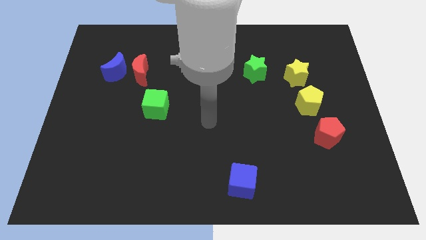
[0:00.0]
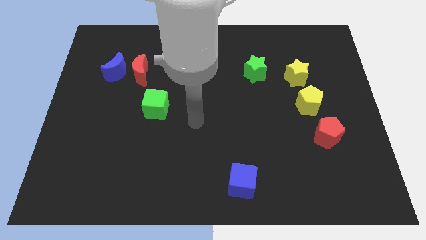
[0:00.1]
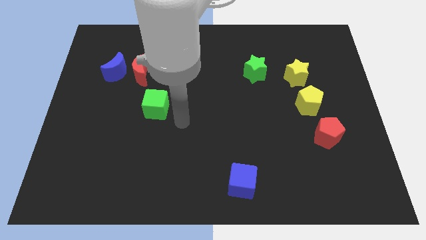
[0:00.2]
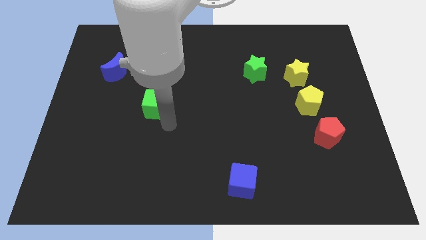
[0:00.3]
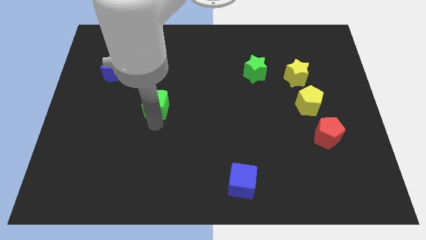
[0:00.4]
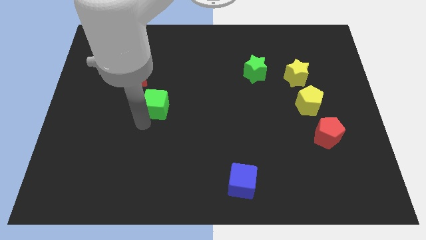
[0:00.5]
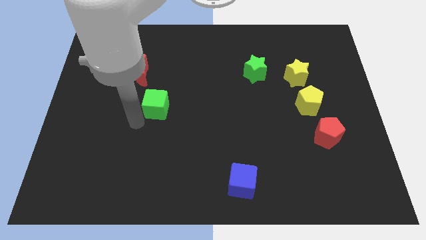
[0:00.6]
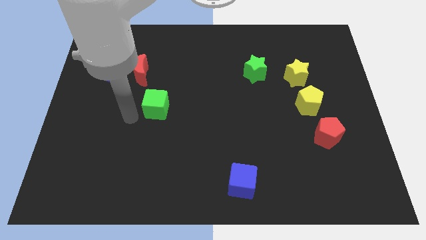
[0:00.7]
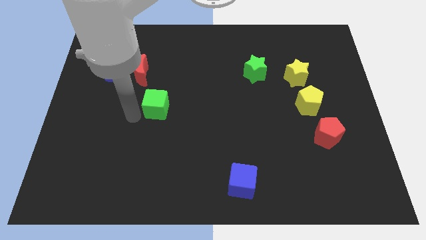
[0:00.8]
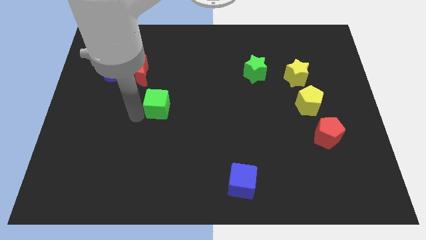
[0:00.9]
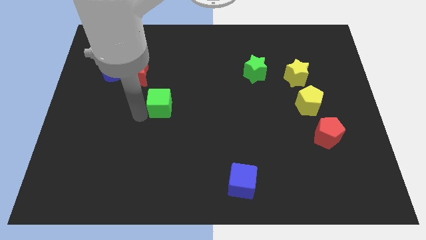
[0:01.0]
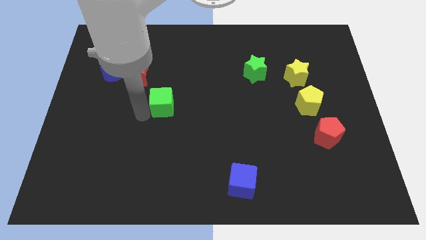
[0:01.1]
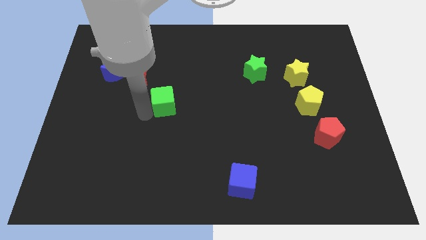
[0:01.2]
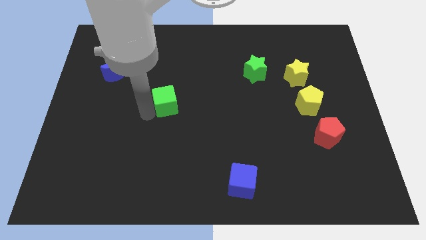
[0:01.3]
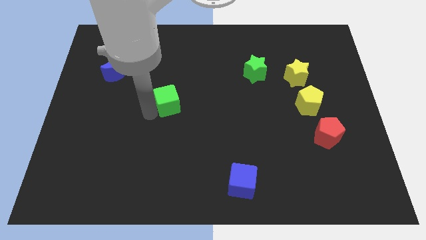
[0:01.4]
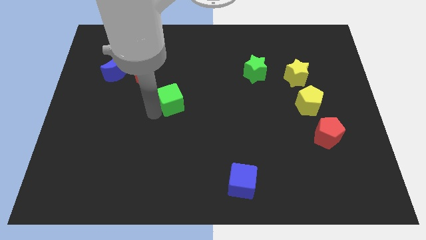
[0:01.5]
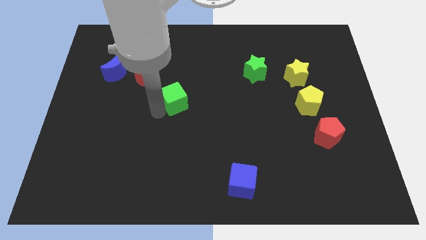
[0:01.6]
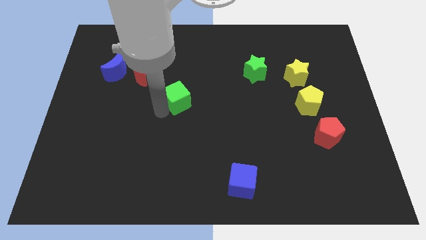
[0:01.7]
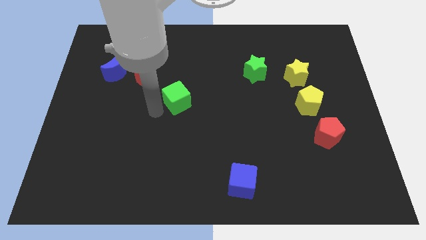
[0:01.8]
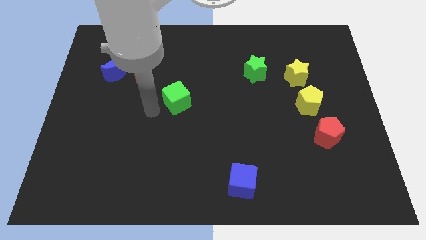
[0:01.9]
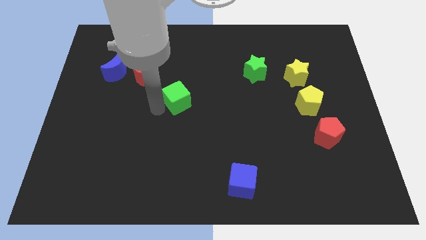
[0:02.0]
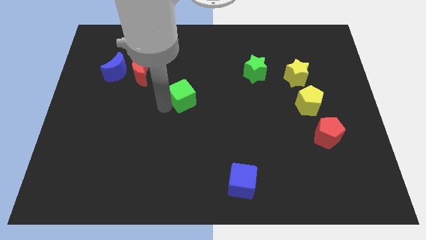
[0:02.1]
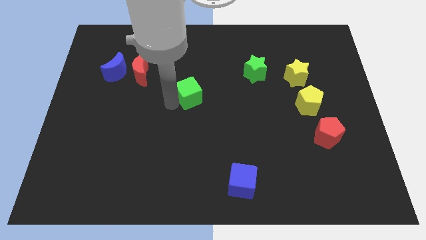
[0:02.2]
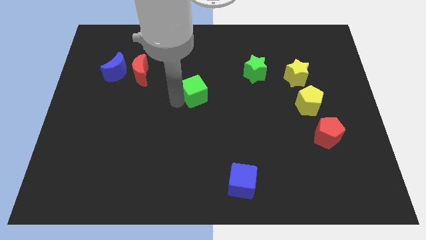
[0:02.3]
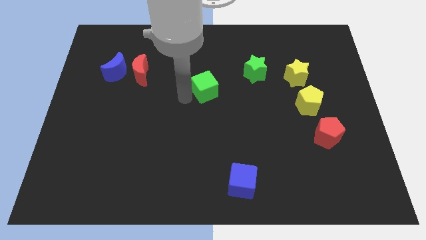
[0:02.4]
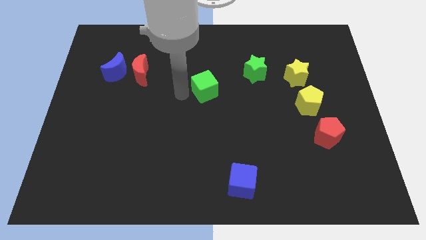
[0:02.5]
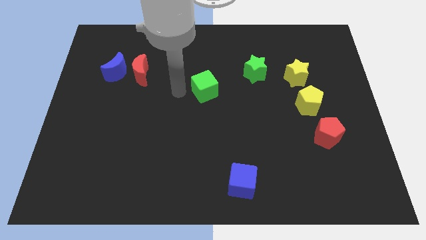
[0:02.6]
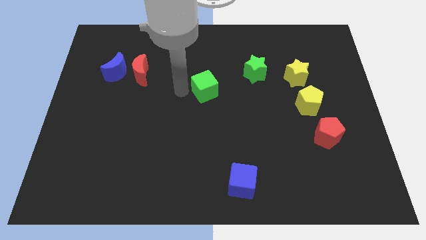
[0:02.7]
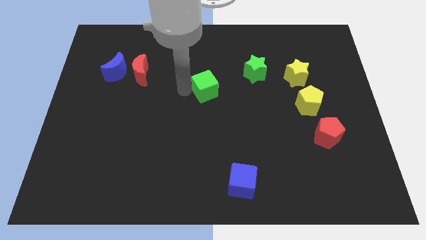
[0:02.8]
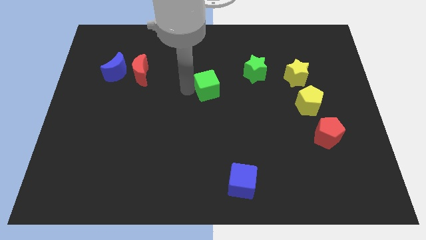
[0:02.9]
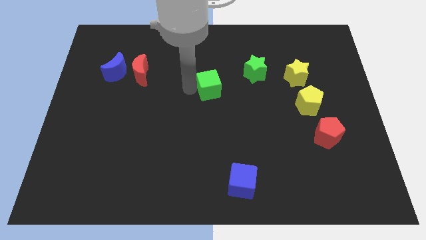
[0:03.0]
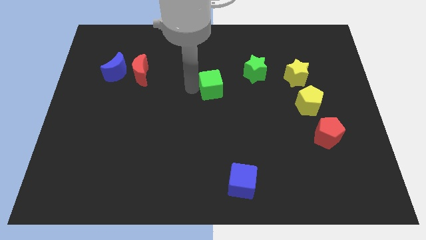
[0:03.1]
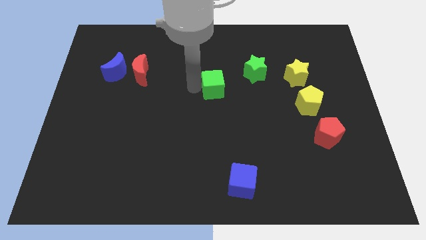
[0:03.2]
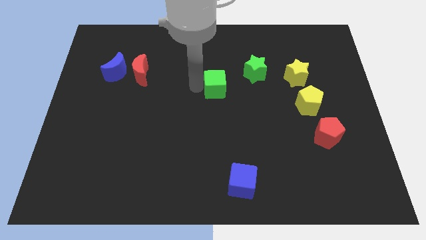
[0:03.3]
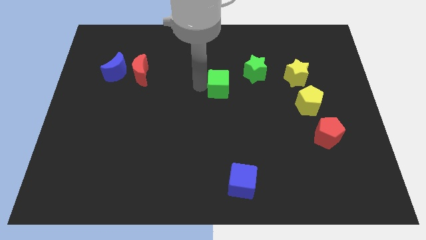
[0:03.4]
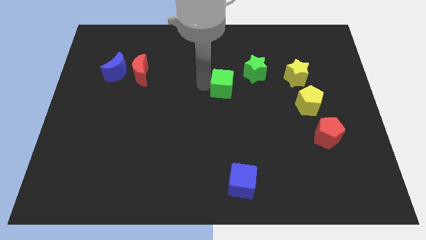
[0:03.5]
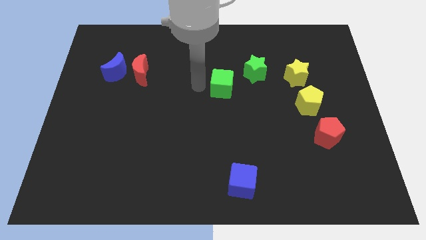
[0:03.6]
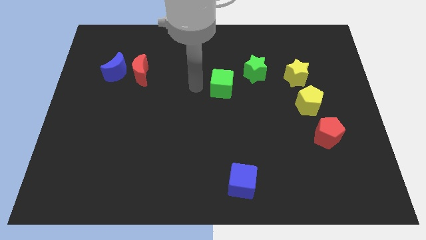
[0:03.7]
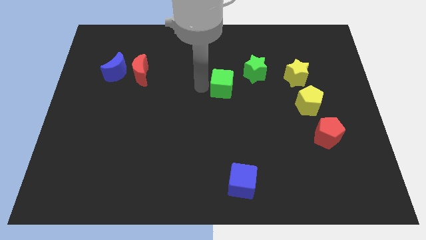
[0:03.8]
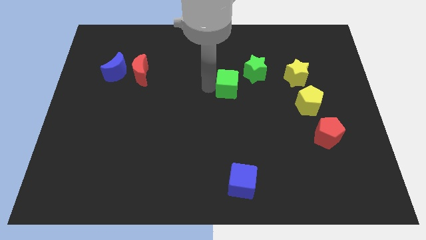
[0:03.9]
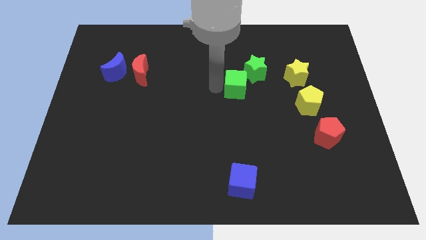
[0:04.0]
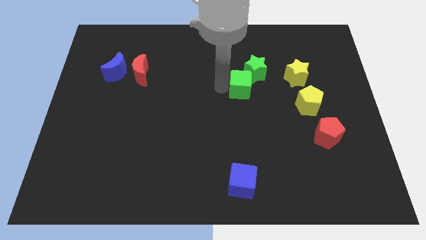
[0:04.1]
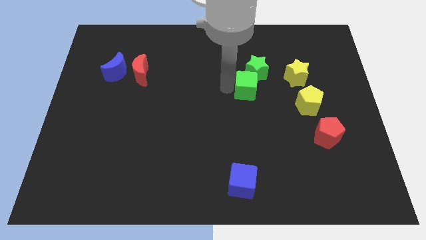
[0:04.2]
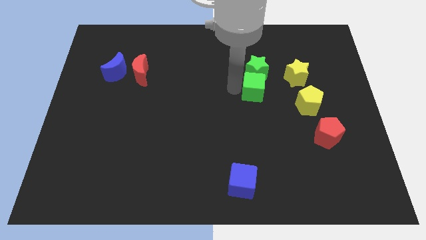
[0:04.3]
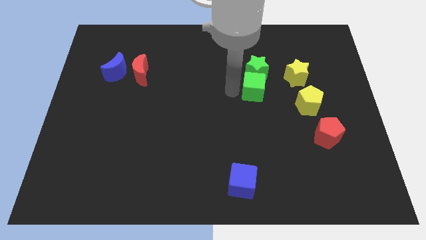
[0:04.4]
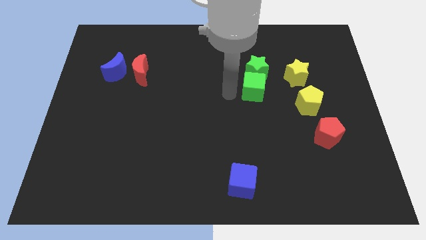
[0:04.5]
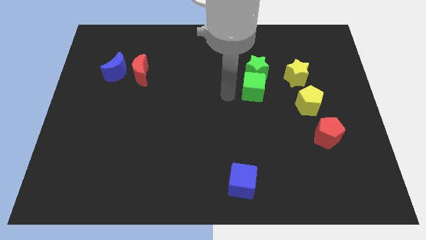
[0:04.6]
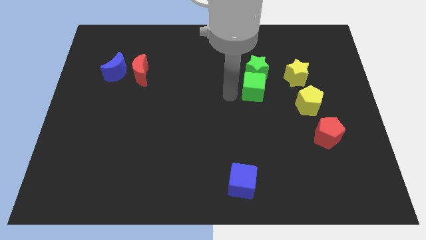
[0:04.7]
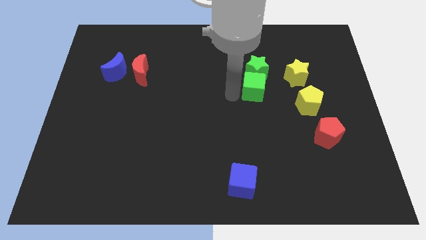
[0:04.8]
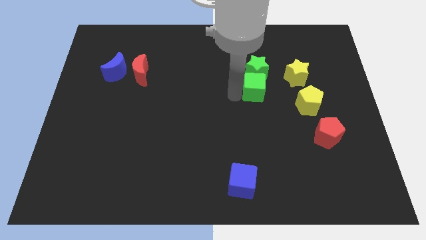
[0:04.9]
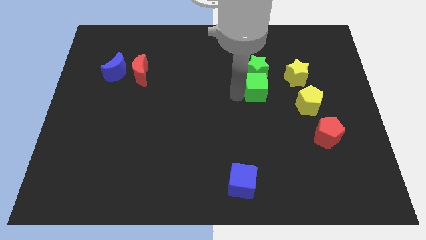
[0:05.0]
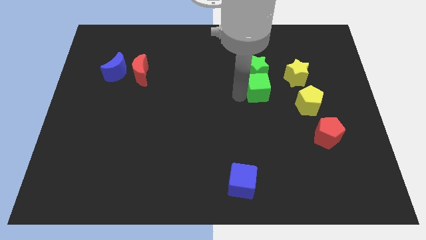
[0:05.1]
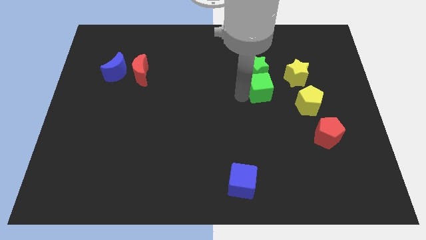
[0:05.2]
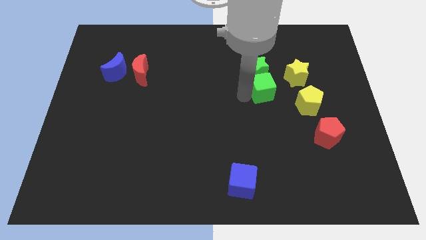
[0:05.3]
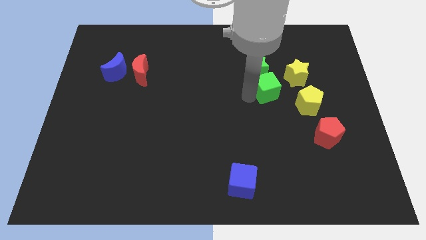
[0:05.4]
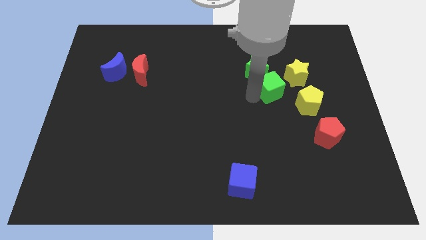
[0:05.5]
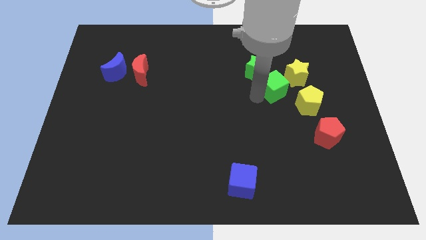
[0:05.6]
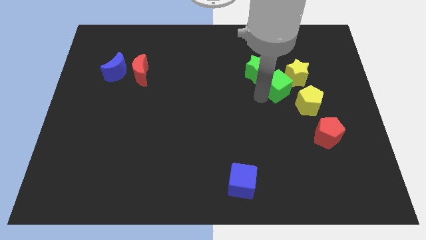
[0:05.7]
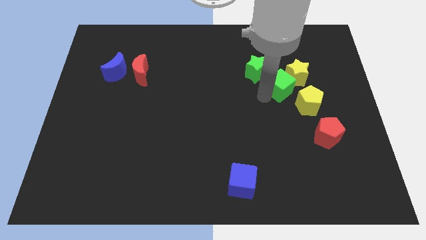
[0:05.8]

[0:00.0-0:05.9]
slide the green cube to the yellow star

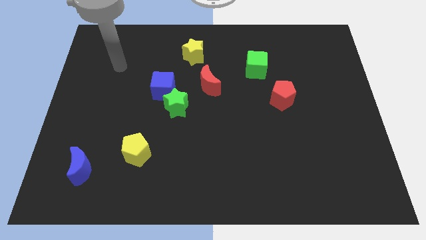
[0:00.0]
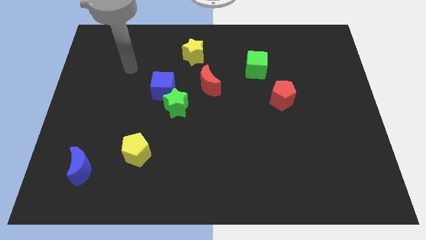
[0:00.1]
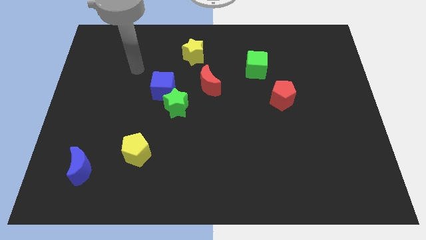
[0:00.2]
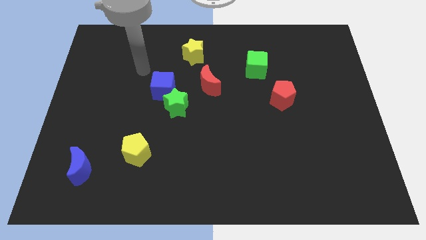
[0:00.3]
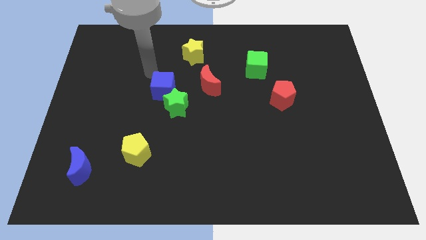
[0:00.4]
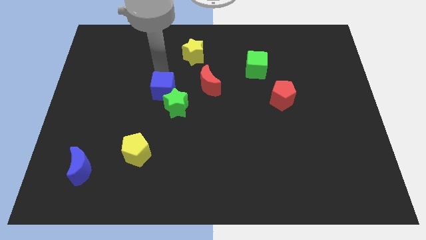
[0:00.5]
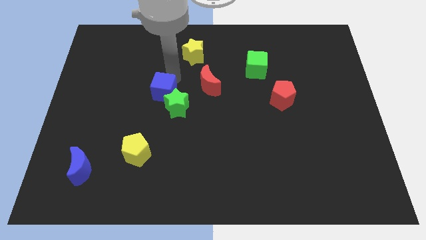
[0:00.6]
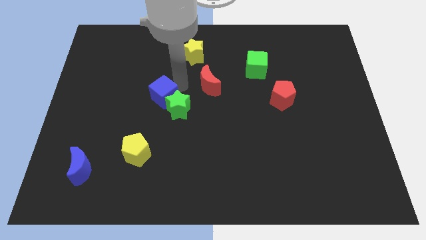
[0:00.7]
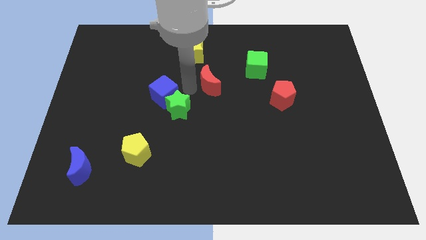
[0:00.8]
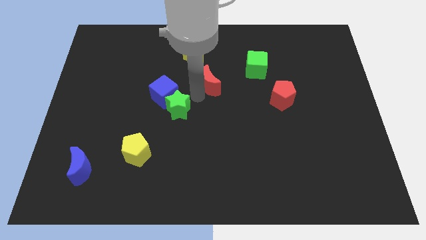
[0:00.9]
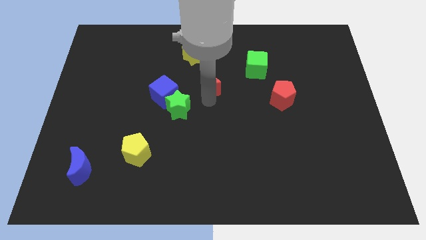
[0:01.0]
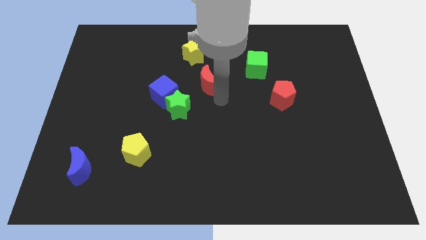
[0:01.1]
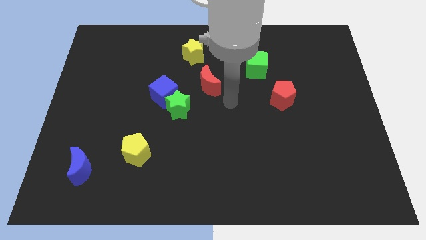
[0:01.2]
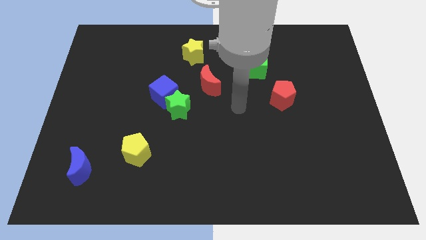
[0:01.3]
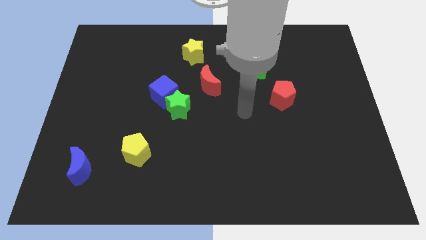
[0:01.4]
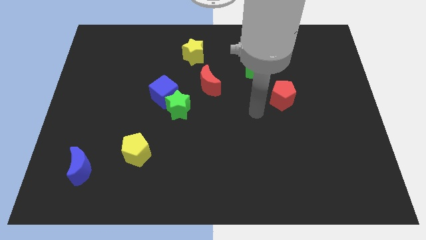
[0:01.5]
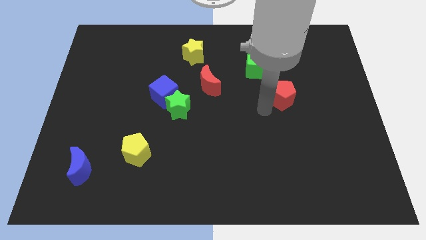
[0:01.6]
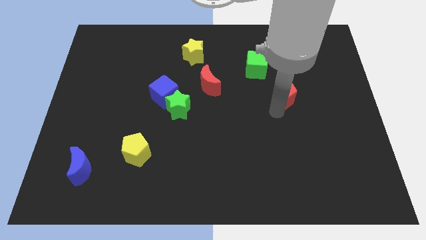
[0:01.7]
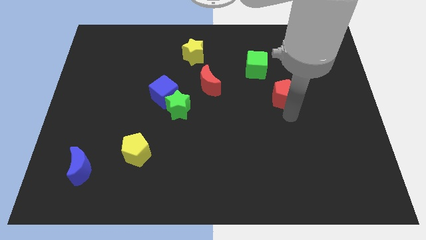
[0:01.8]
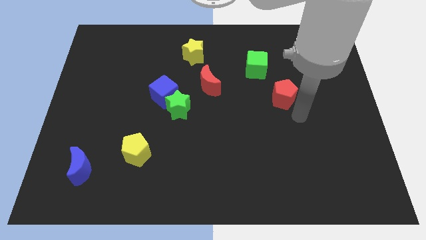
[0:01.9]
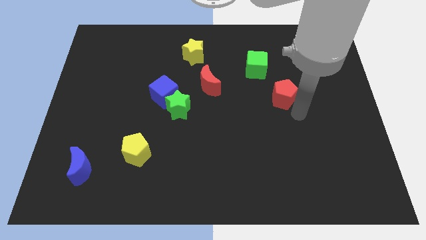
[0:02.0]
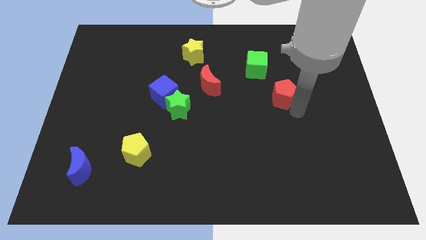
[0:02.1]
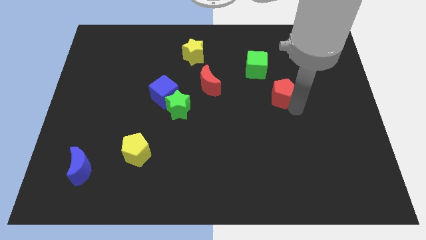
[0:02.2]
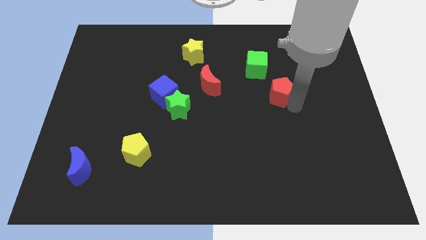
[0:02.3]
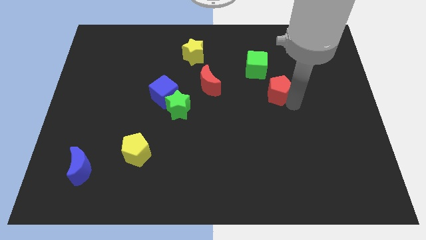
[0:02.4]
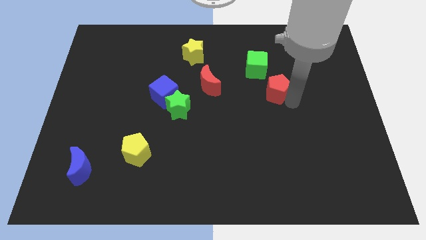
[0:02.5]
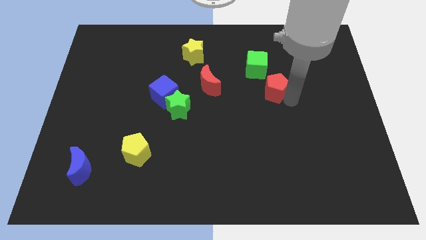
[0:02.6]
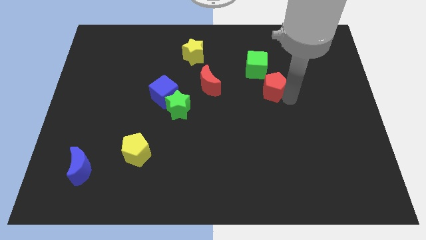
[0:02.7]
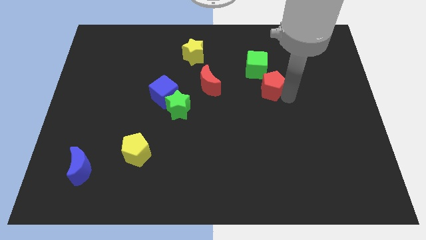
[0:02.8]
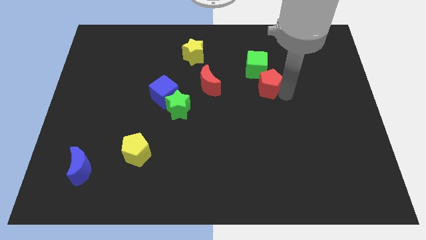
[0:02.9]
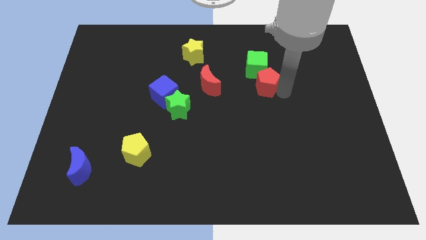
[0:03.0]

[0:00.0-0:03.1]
push the red pentagon to the green cube
